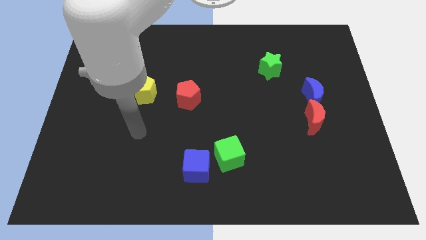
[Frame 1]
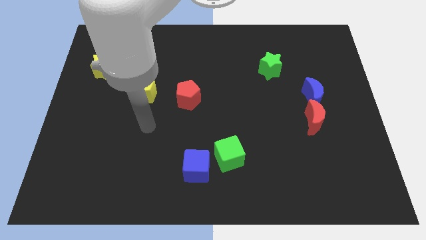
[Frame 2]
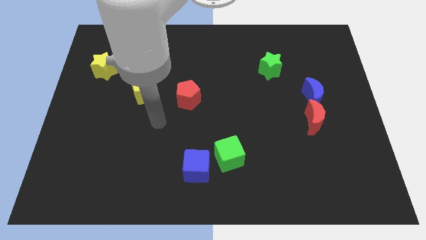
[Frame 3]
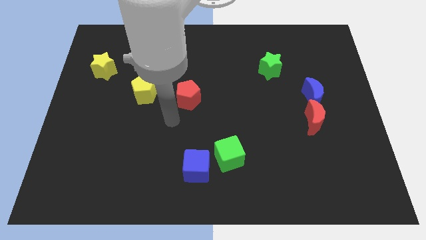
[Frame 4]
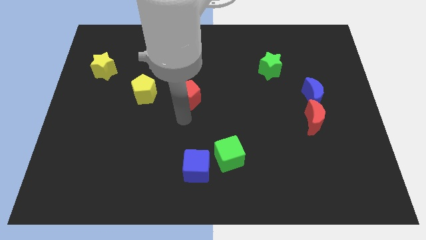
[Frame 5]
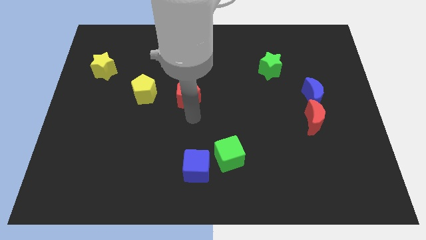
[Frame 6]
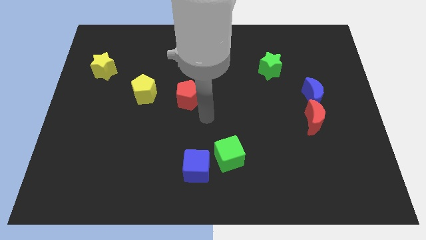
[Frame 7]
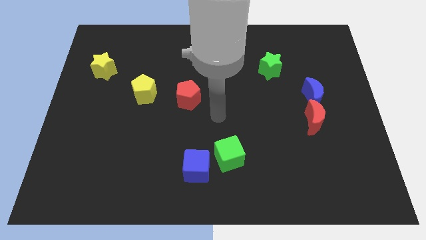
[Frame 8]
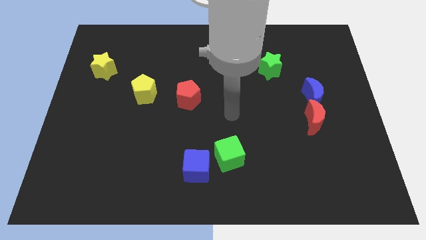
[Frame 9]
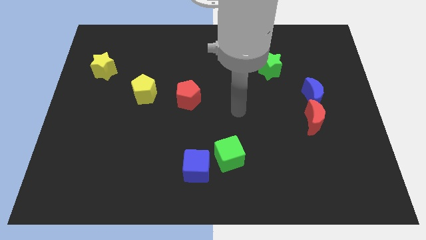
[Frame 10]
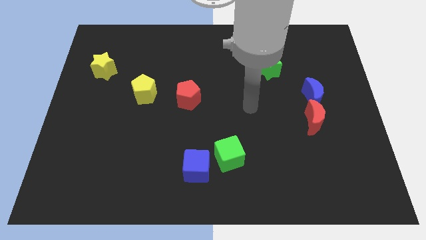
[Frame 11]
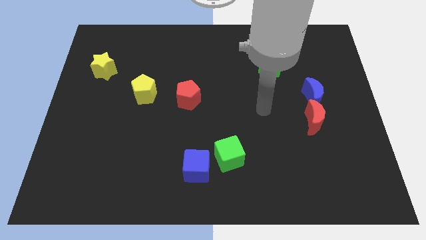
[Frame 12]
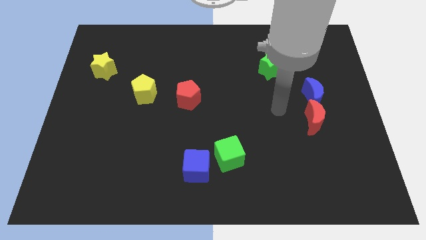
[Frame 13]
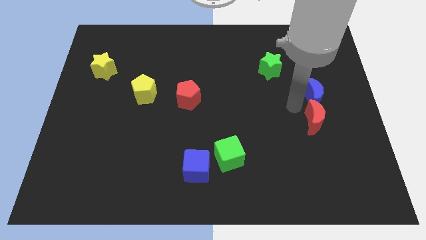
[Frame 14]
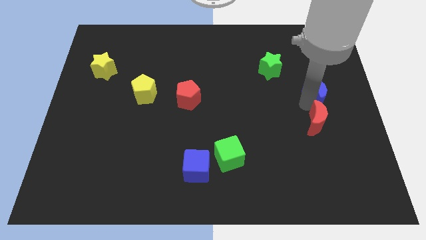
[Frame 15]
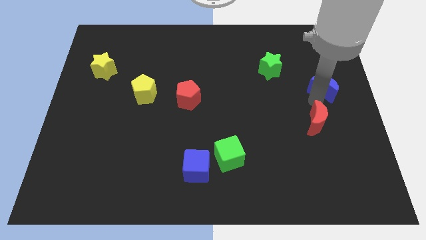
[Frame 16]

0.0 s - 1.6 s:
pull the red moon apart from the blue moon

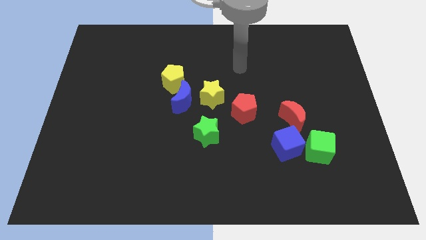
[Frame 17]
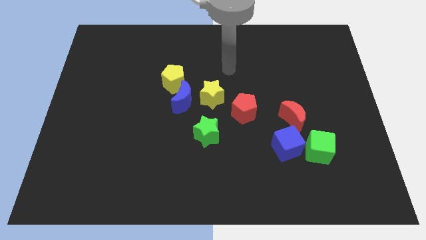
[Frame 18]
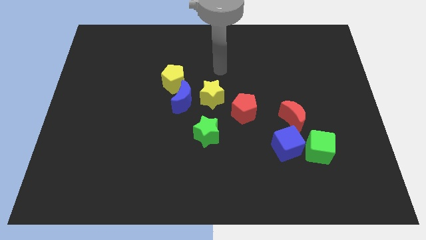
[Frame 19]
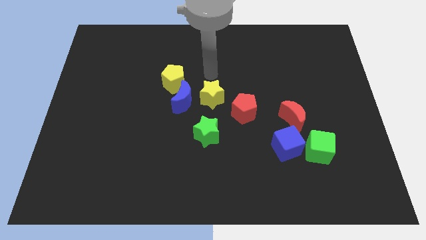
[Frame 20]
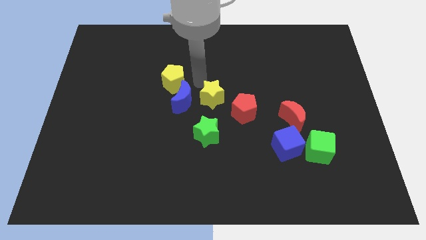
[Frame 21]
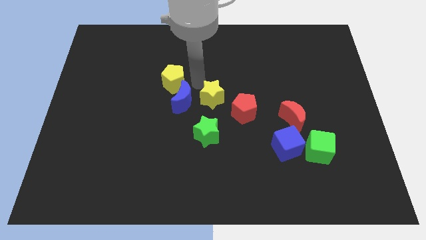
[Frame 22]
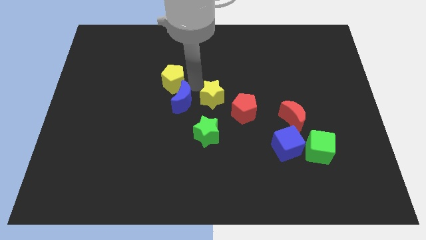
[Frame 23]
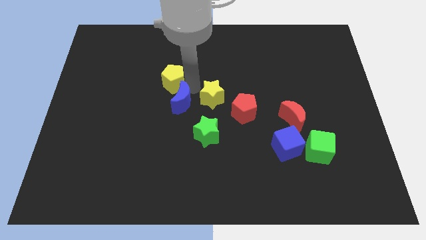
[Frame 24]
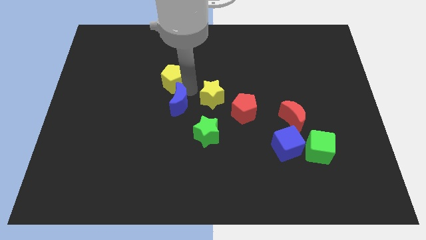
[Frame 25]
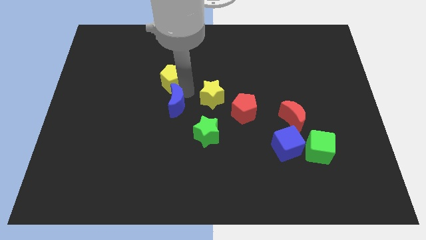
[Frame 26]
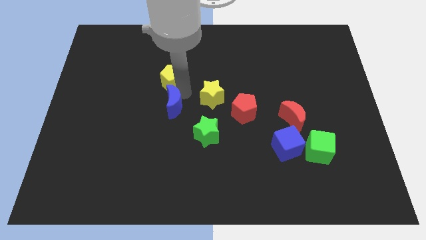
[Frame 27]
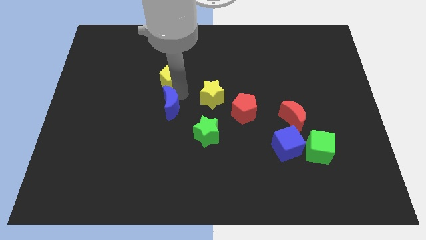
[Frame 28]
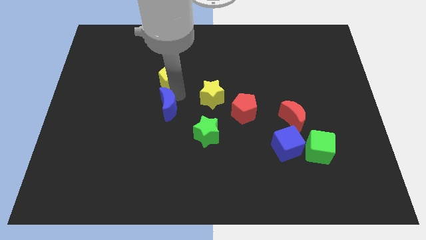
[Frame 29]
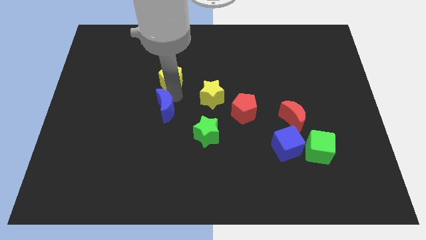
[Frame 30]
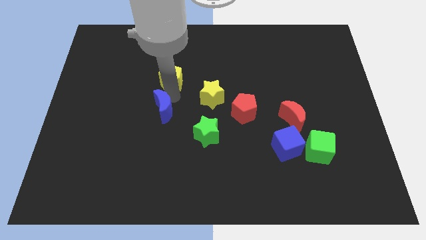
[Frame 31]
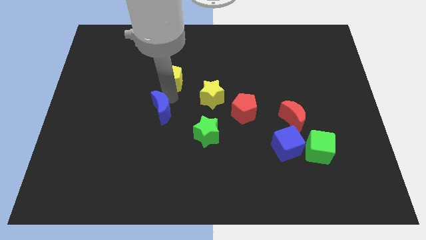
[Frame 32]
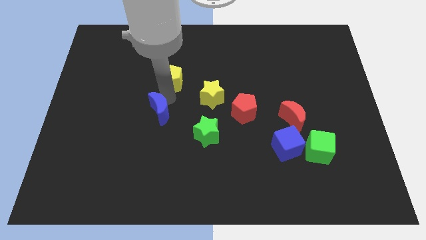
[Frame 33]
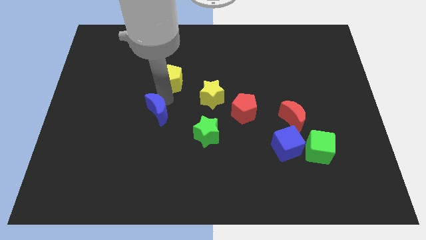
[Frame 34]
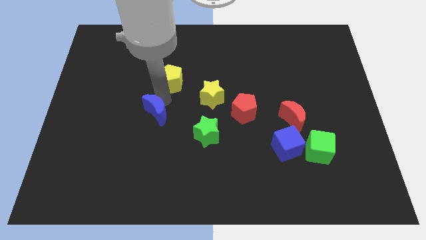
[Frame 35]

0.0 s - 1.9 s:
move the blue moon away from the yellow star and yellow pentagon

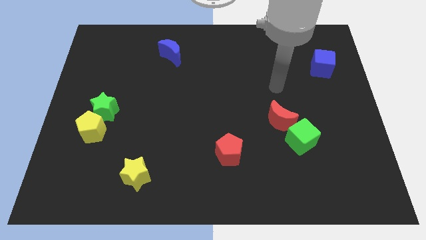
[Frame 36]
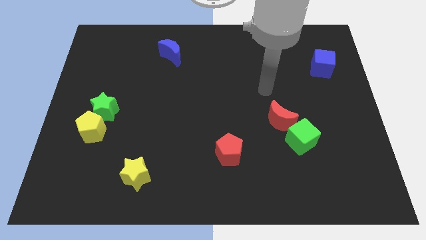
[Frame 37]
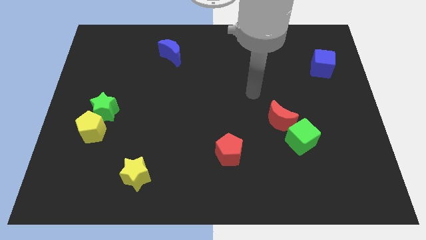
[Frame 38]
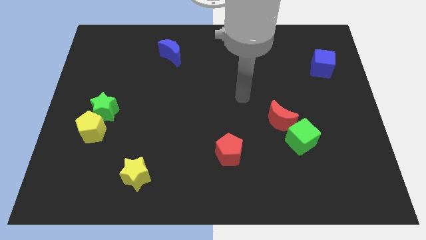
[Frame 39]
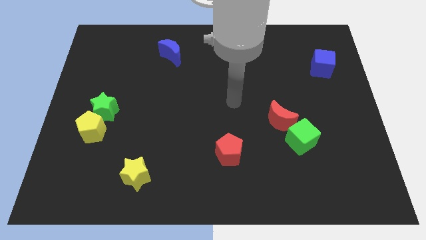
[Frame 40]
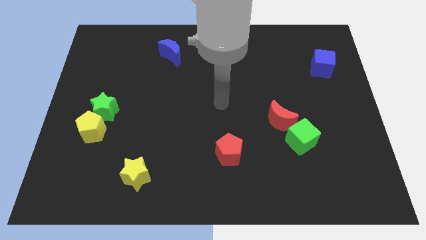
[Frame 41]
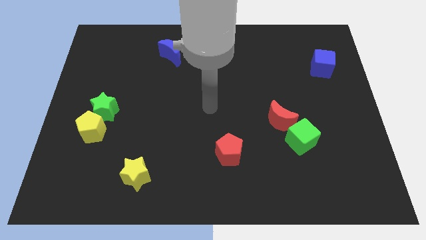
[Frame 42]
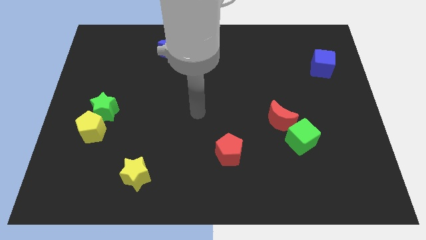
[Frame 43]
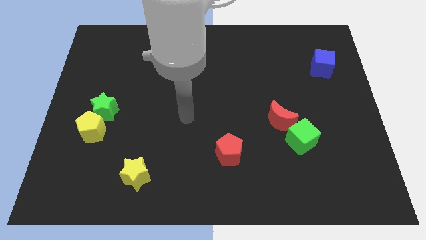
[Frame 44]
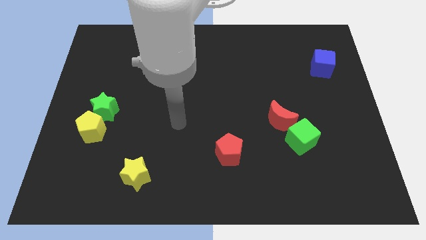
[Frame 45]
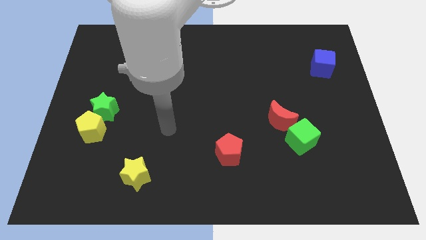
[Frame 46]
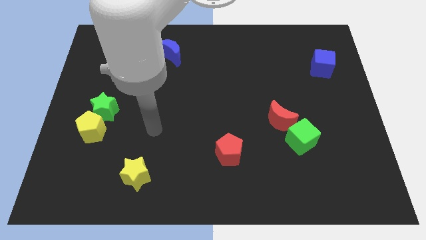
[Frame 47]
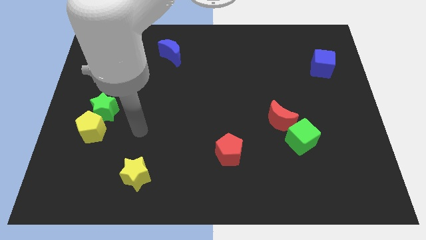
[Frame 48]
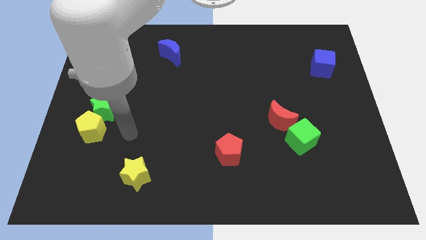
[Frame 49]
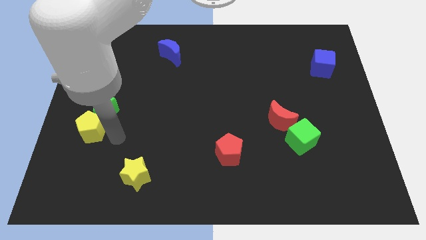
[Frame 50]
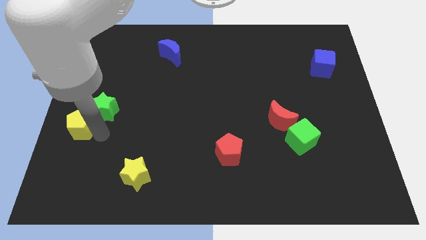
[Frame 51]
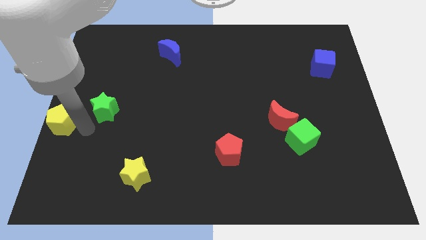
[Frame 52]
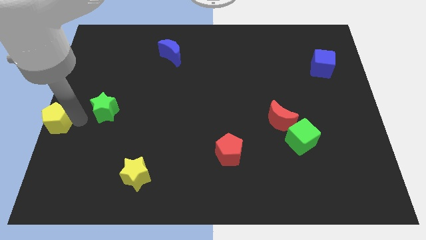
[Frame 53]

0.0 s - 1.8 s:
pull the green star apart from the yellow pentagon

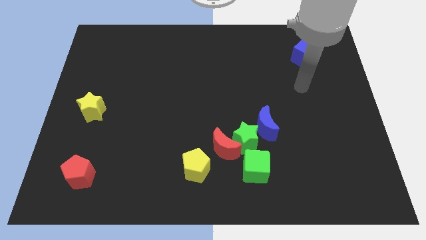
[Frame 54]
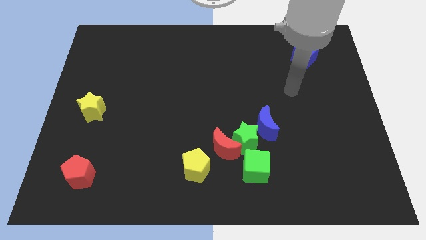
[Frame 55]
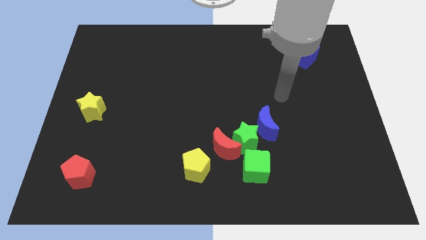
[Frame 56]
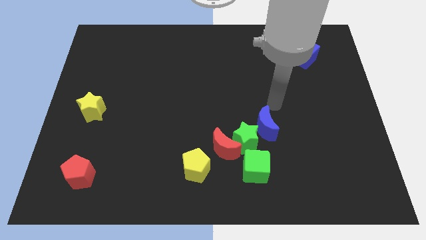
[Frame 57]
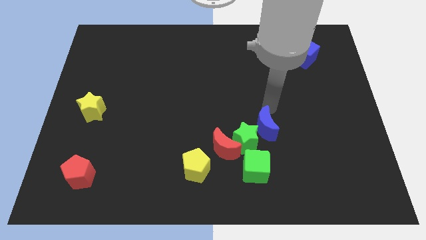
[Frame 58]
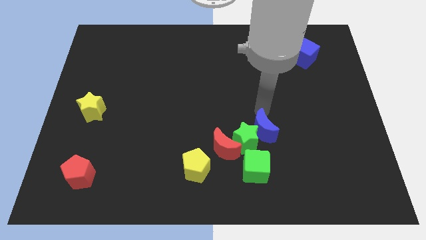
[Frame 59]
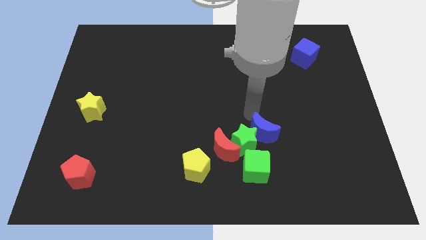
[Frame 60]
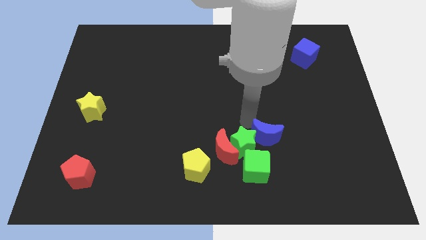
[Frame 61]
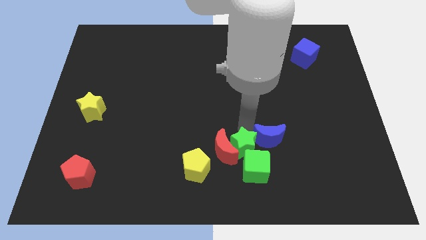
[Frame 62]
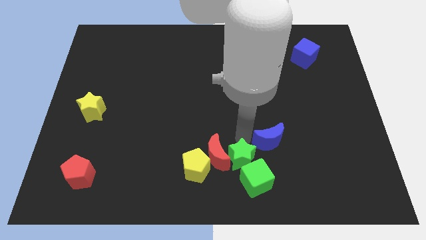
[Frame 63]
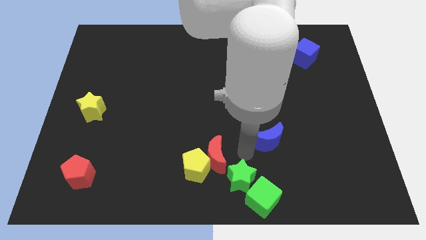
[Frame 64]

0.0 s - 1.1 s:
move the blue moon away from the green star

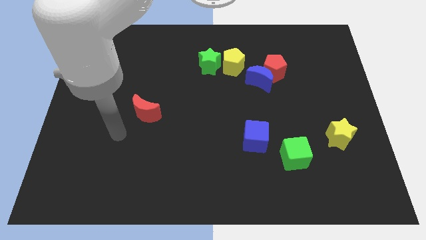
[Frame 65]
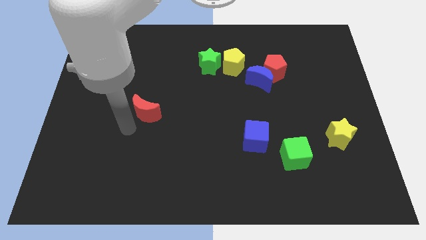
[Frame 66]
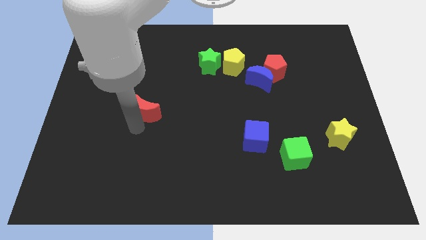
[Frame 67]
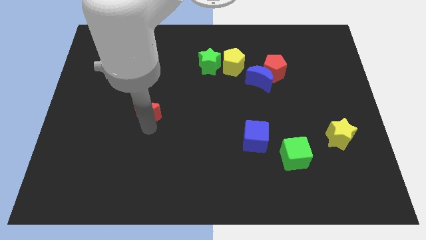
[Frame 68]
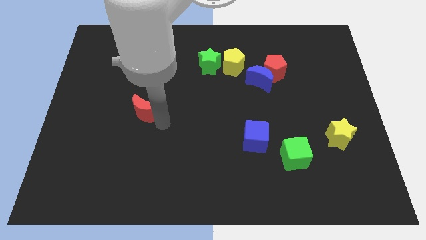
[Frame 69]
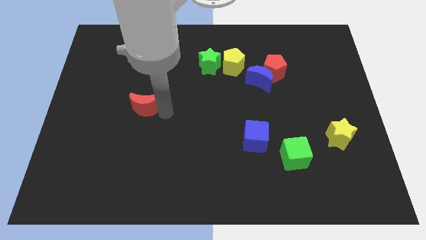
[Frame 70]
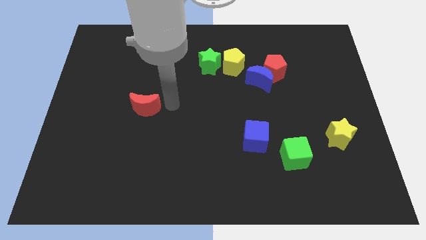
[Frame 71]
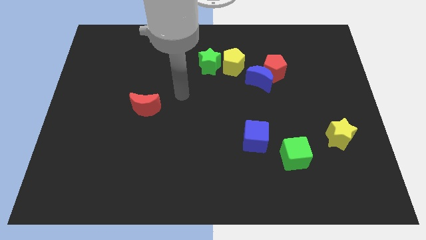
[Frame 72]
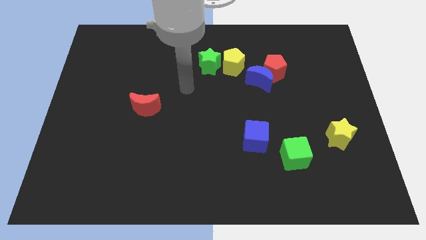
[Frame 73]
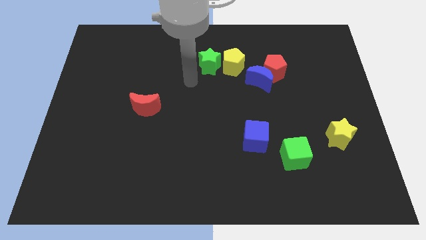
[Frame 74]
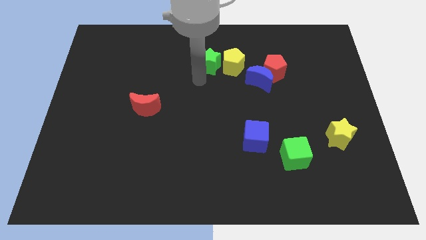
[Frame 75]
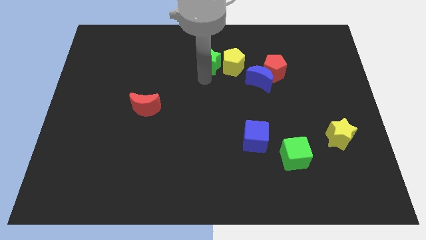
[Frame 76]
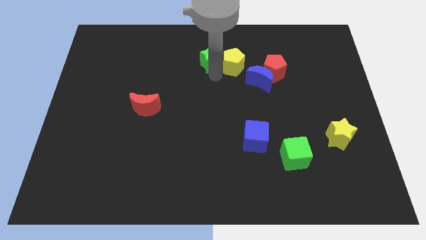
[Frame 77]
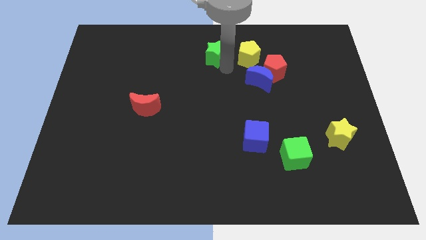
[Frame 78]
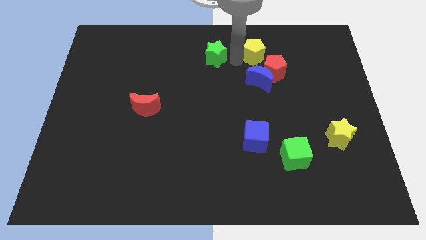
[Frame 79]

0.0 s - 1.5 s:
move the green star away from the yellow pentagon

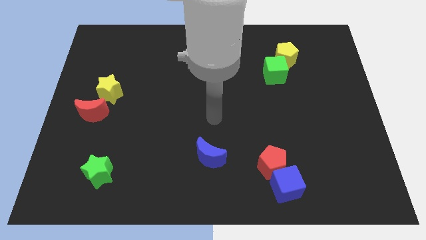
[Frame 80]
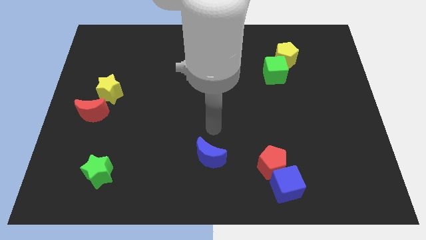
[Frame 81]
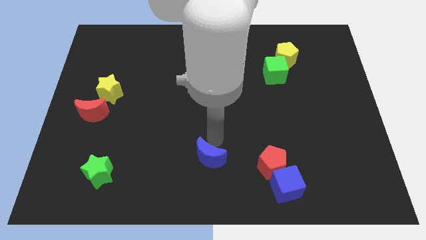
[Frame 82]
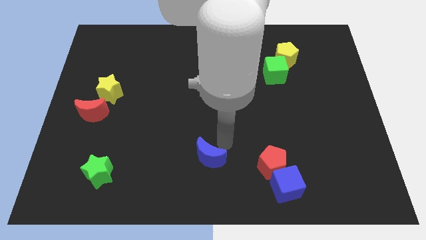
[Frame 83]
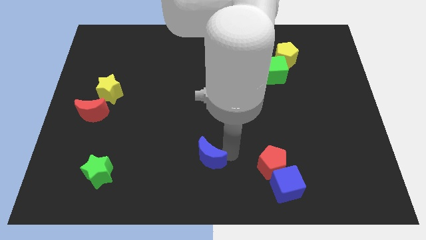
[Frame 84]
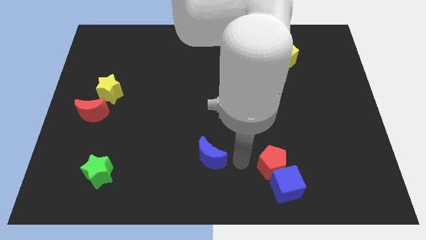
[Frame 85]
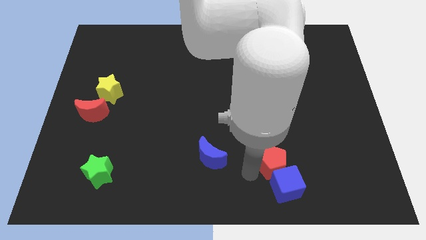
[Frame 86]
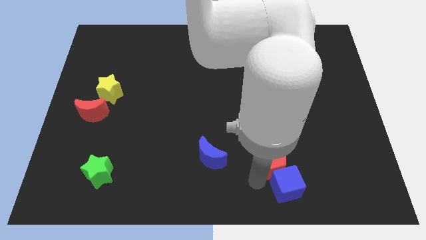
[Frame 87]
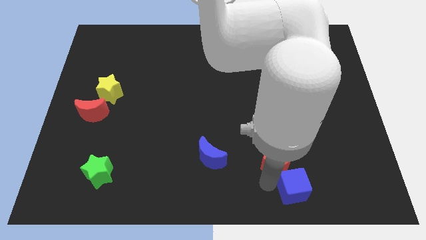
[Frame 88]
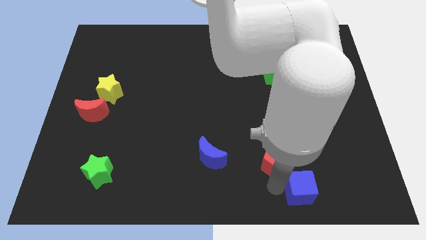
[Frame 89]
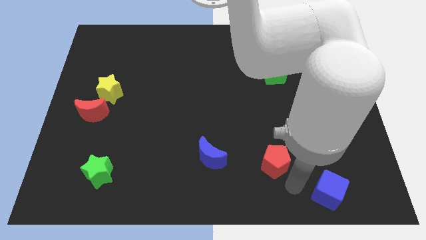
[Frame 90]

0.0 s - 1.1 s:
pull the red pentagon apart from the blue cube
